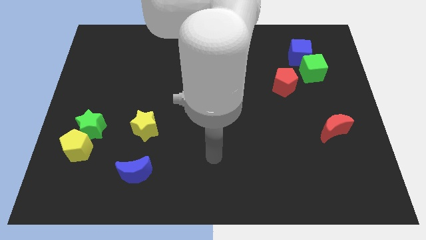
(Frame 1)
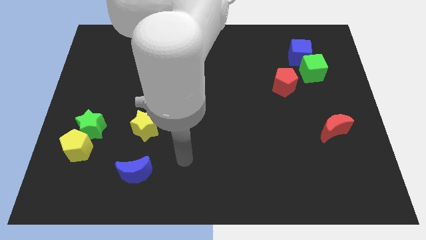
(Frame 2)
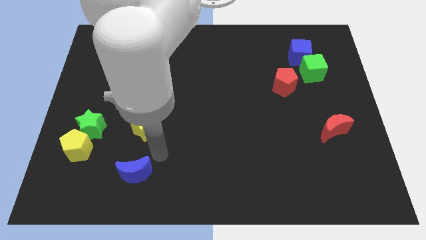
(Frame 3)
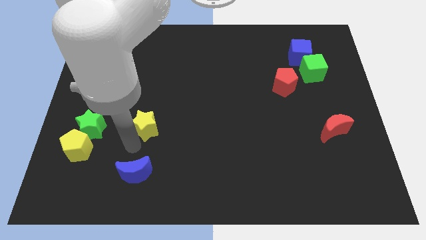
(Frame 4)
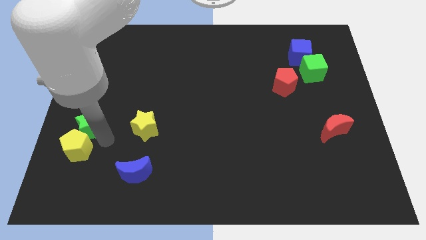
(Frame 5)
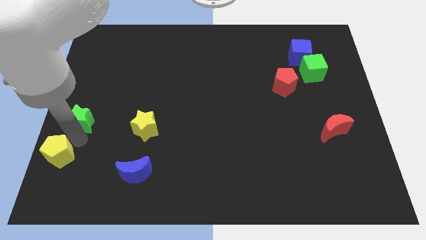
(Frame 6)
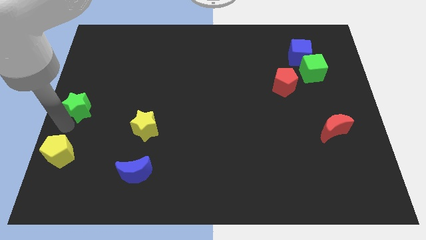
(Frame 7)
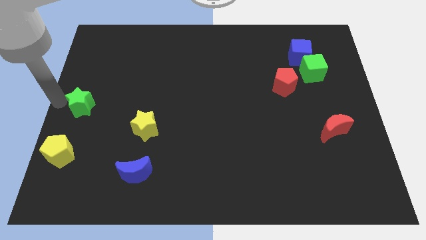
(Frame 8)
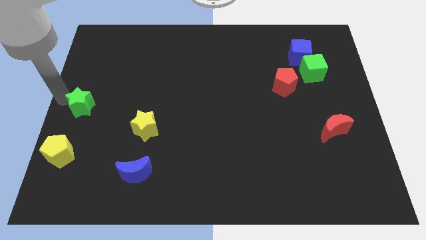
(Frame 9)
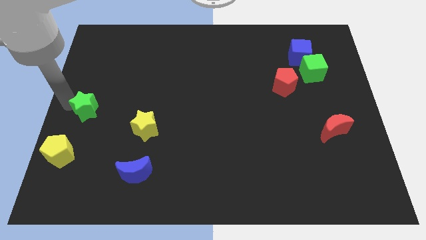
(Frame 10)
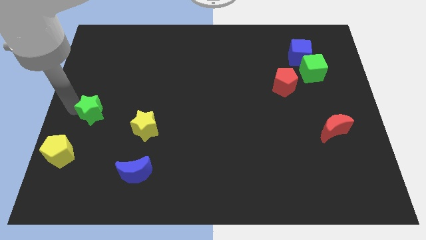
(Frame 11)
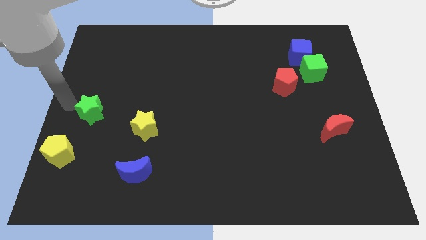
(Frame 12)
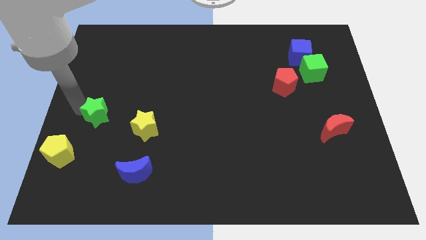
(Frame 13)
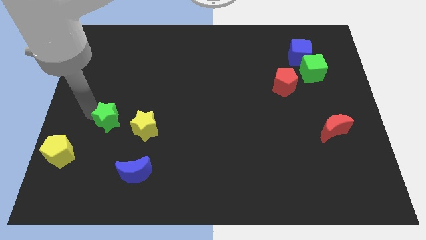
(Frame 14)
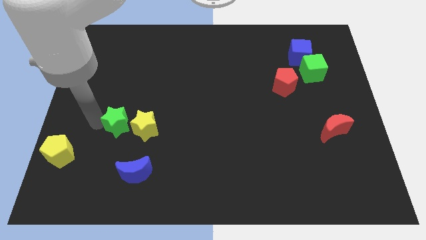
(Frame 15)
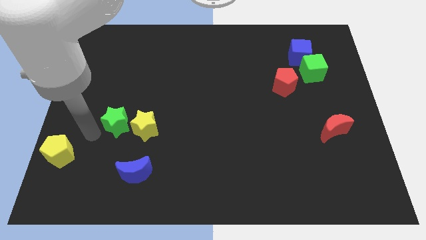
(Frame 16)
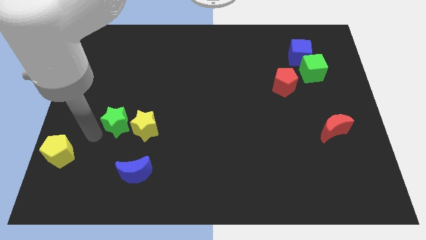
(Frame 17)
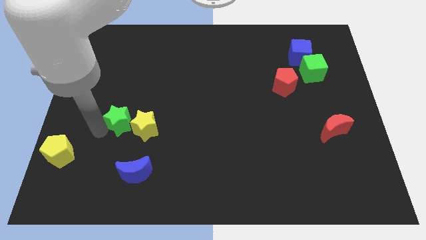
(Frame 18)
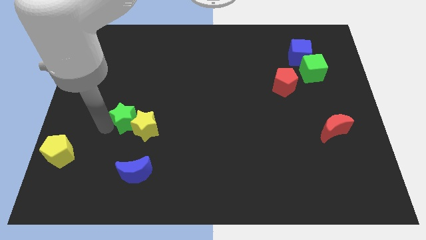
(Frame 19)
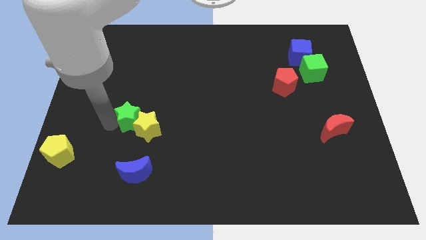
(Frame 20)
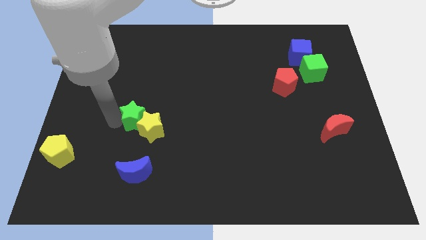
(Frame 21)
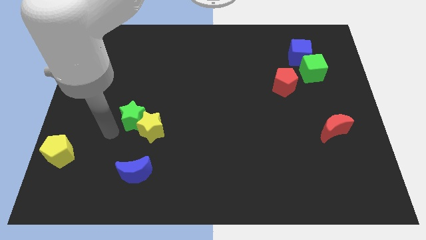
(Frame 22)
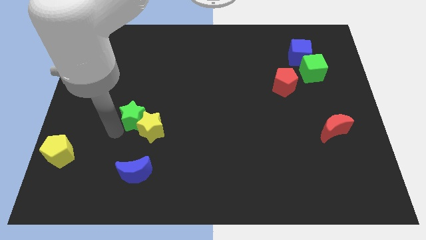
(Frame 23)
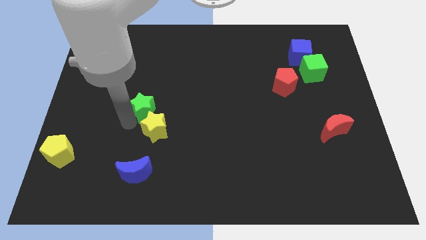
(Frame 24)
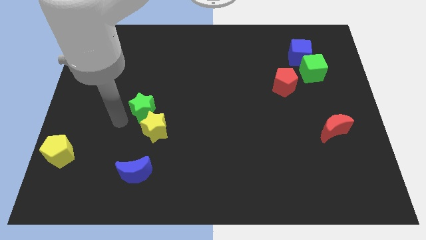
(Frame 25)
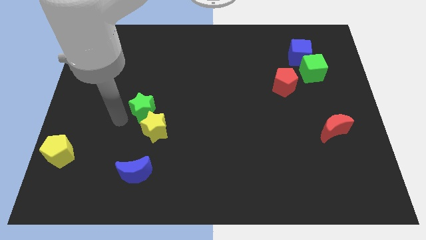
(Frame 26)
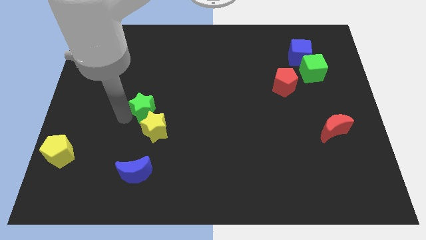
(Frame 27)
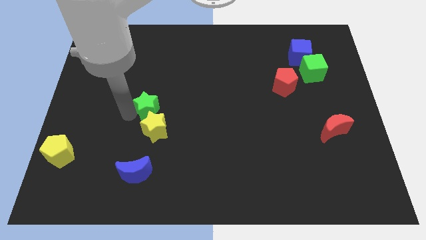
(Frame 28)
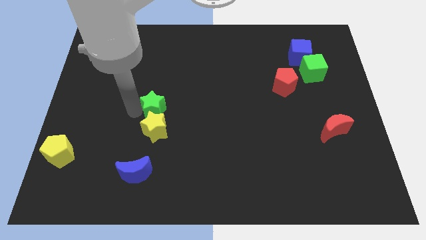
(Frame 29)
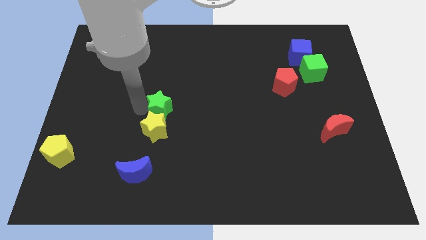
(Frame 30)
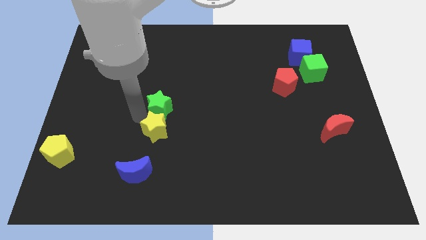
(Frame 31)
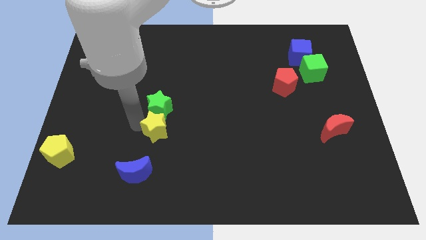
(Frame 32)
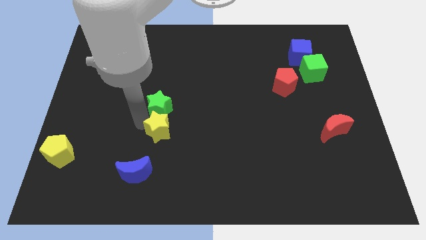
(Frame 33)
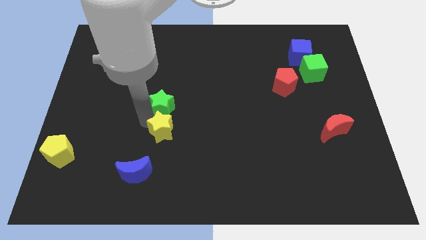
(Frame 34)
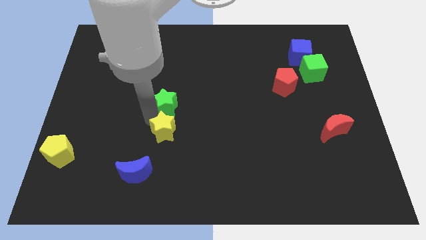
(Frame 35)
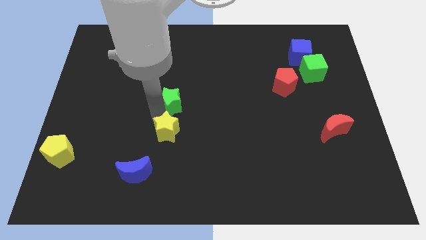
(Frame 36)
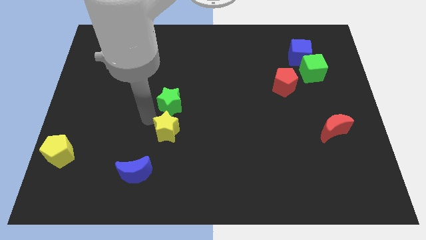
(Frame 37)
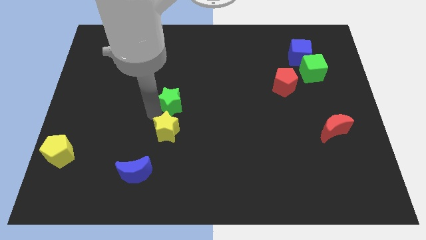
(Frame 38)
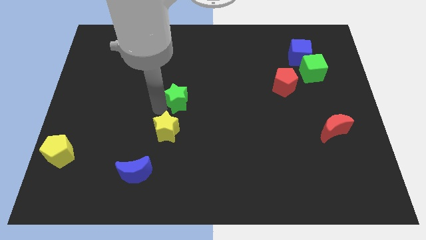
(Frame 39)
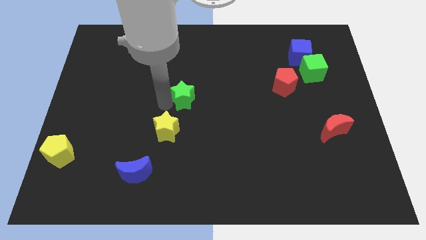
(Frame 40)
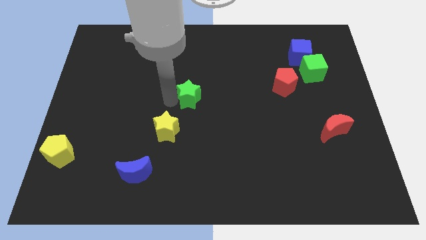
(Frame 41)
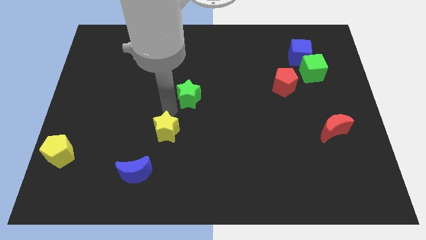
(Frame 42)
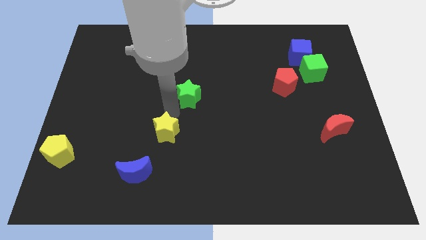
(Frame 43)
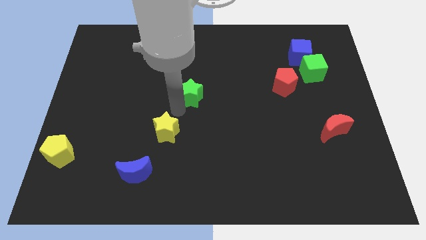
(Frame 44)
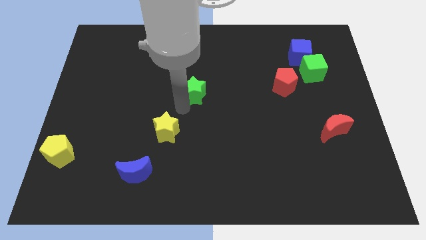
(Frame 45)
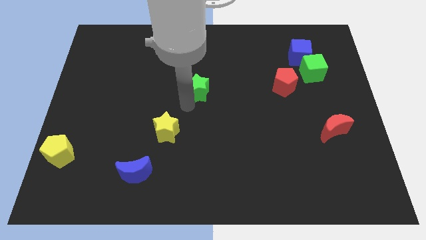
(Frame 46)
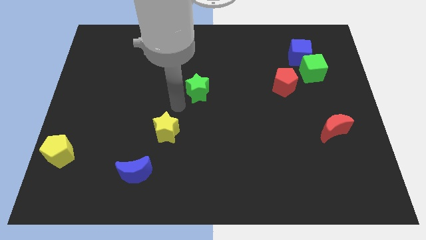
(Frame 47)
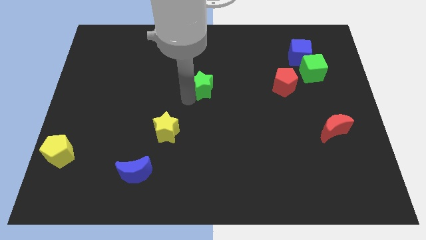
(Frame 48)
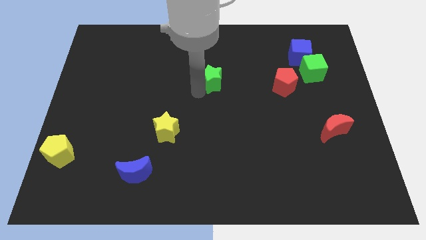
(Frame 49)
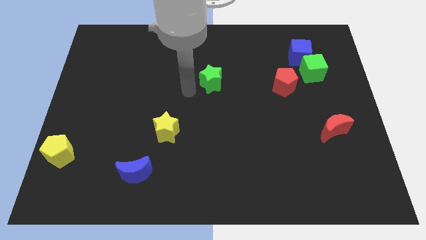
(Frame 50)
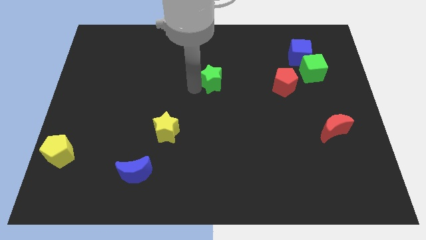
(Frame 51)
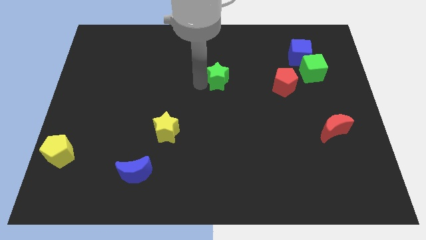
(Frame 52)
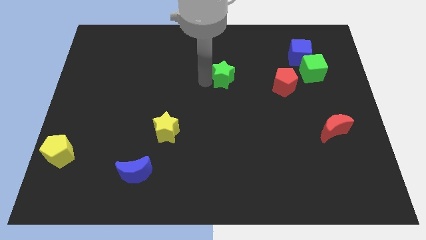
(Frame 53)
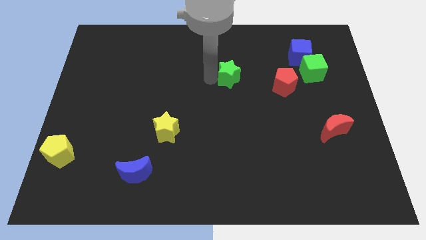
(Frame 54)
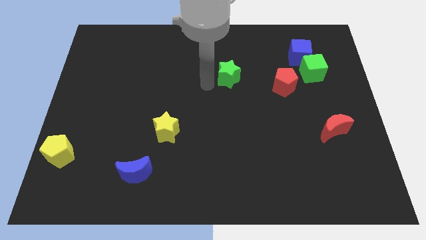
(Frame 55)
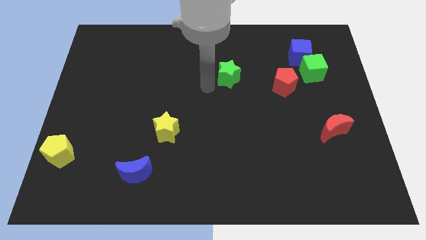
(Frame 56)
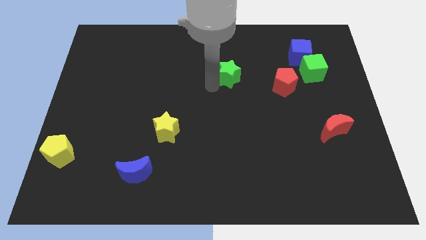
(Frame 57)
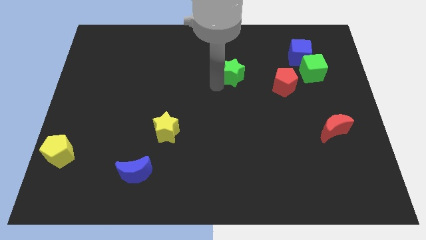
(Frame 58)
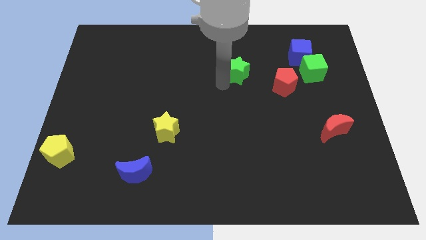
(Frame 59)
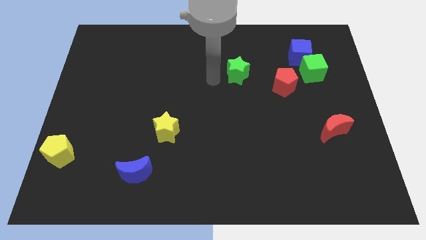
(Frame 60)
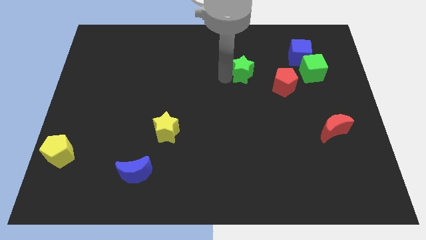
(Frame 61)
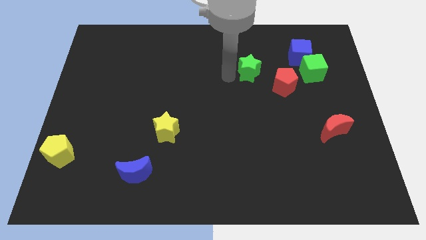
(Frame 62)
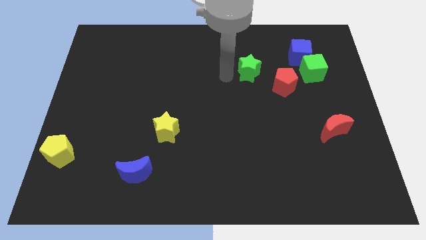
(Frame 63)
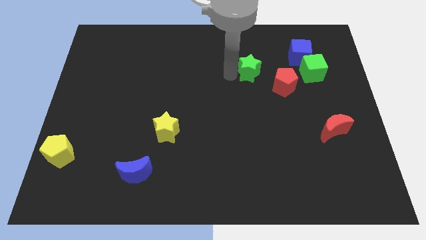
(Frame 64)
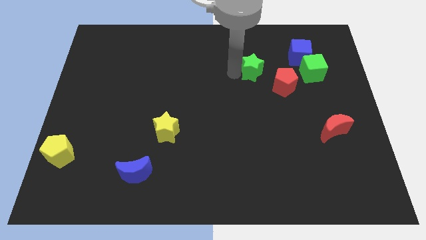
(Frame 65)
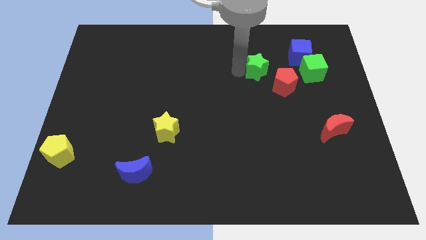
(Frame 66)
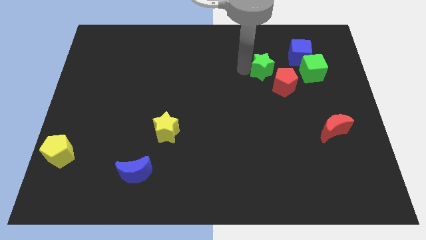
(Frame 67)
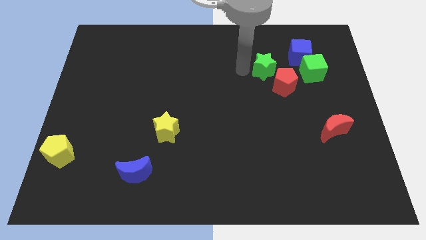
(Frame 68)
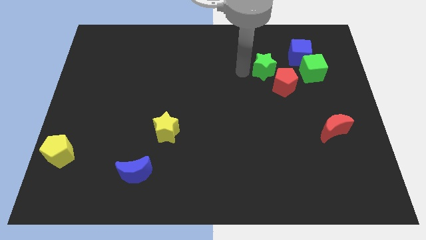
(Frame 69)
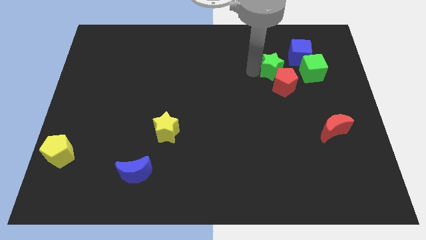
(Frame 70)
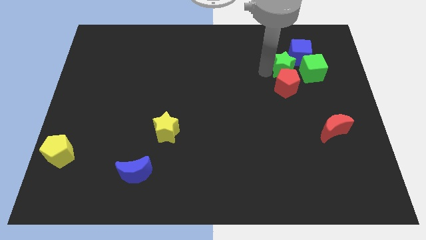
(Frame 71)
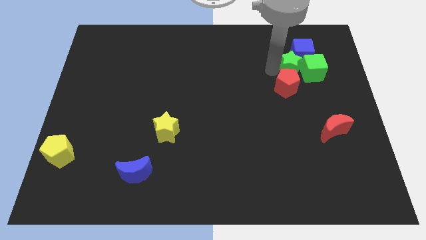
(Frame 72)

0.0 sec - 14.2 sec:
put the green star to the green cube
